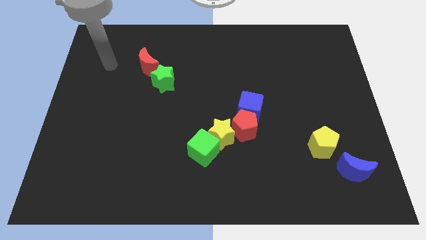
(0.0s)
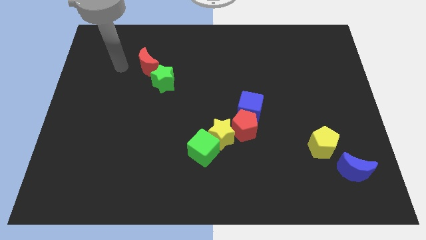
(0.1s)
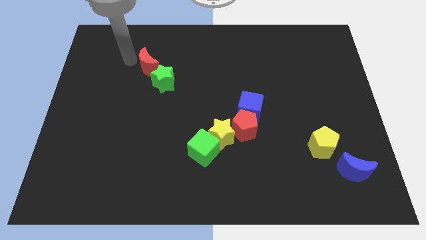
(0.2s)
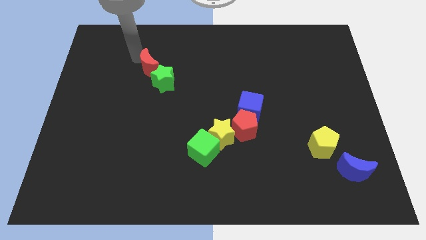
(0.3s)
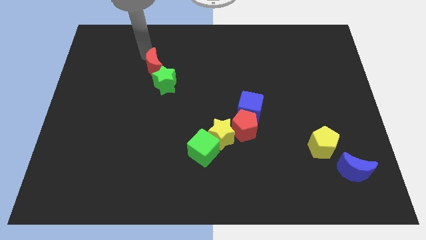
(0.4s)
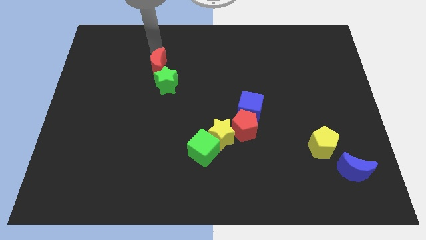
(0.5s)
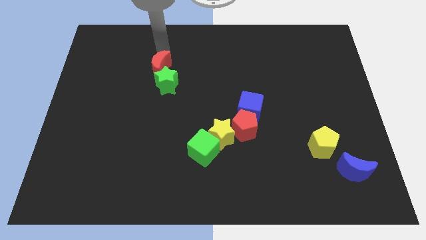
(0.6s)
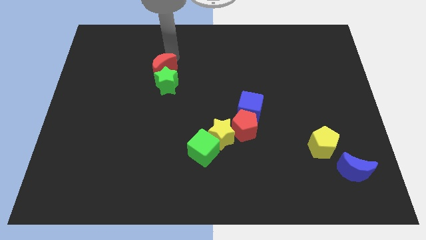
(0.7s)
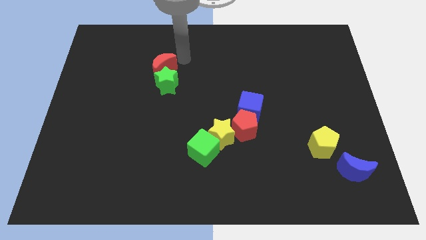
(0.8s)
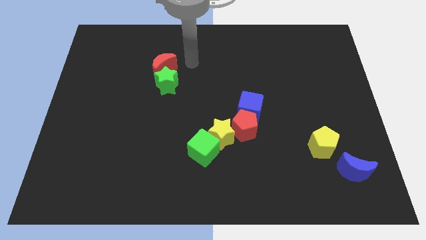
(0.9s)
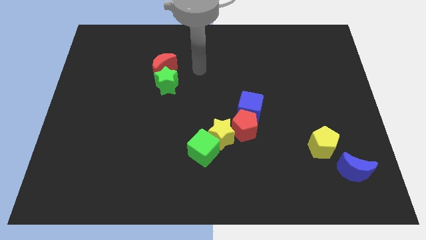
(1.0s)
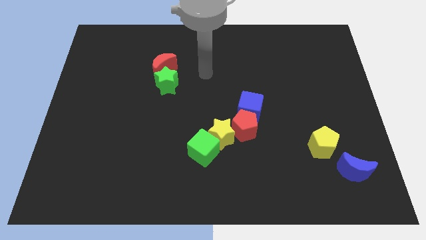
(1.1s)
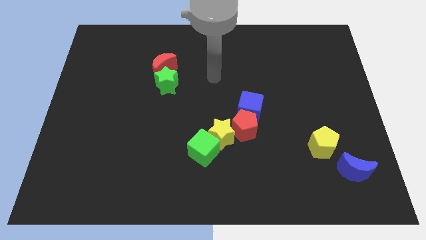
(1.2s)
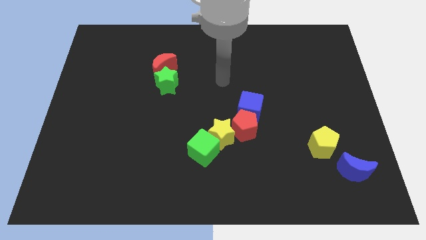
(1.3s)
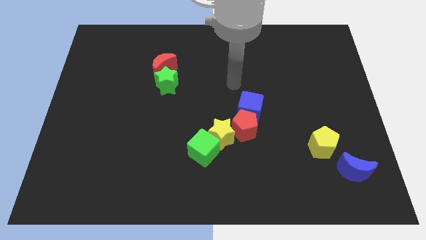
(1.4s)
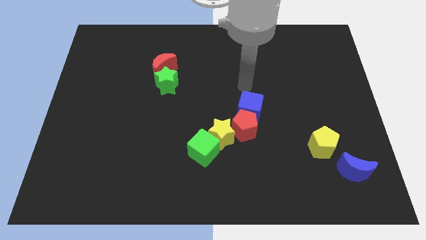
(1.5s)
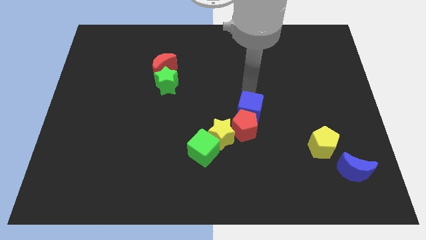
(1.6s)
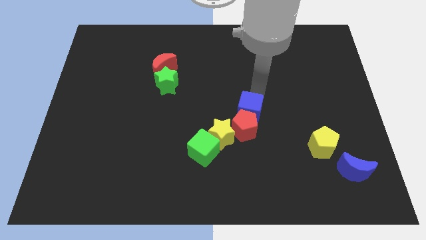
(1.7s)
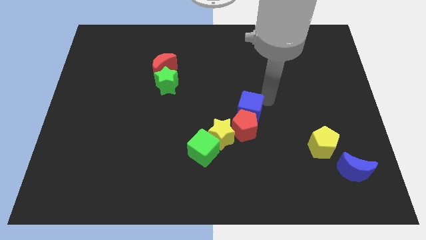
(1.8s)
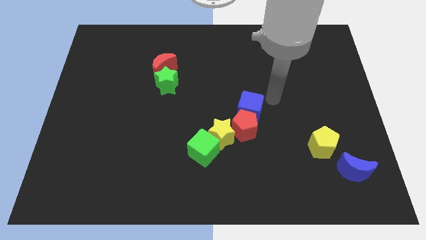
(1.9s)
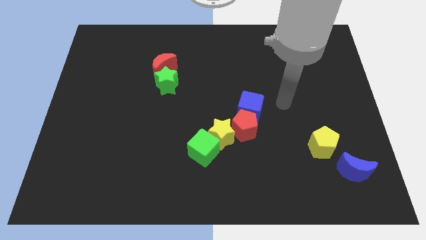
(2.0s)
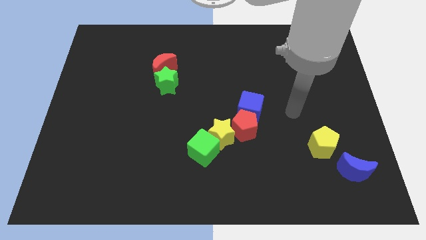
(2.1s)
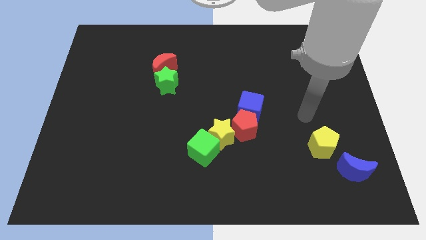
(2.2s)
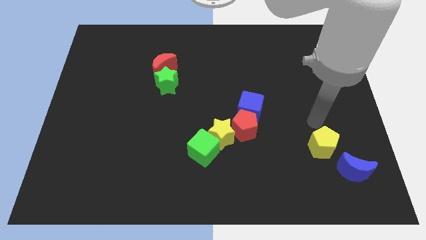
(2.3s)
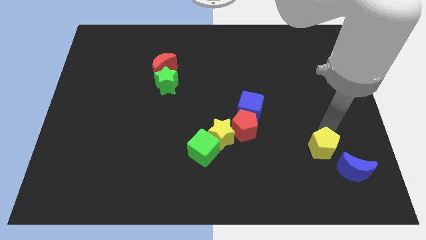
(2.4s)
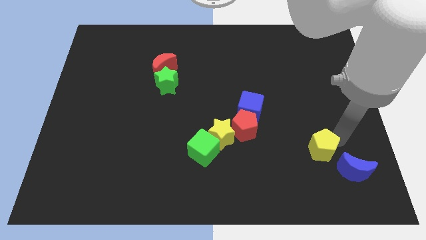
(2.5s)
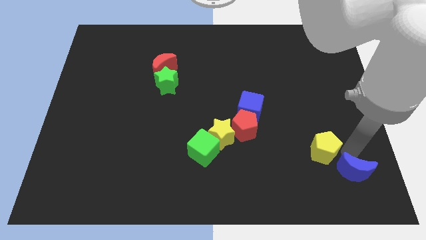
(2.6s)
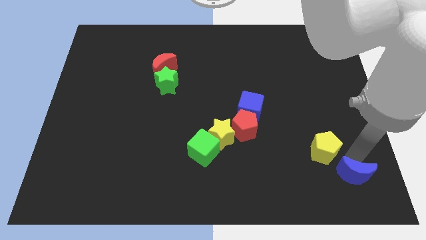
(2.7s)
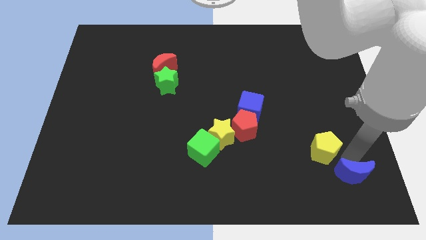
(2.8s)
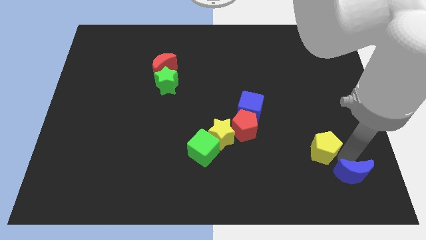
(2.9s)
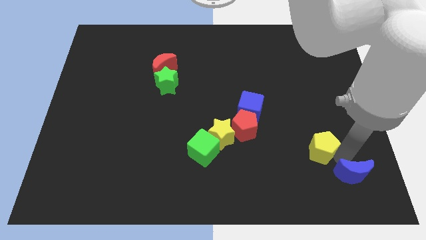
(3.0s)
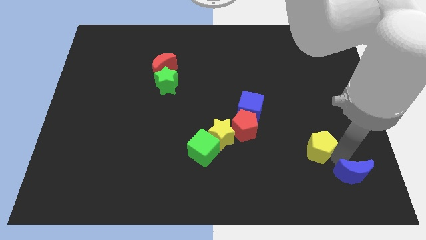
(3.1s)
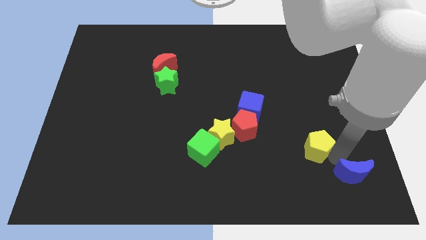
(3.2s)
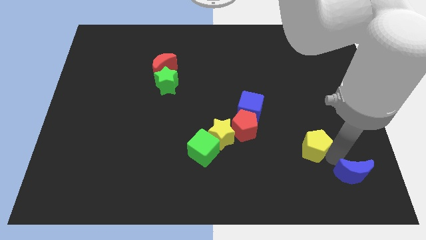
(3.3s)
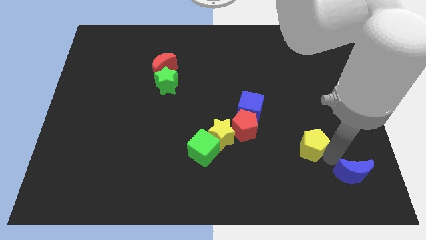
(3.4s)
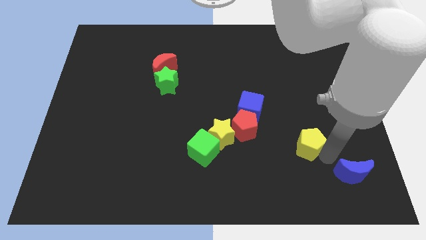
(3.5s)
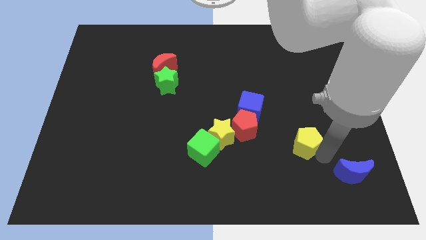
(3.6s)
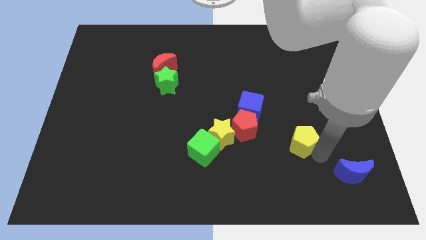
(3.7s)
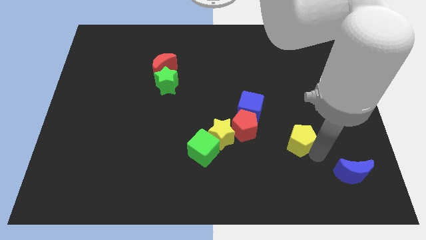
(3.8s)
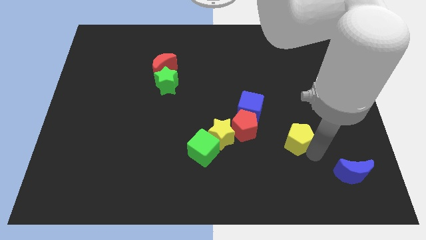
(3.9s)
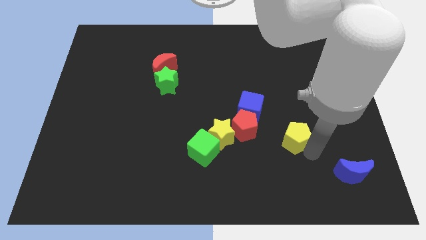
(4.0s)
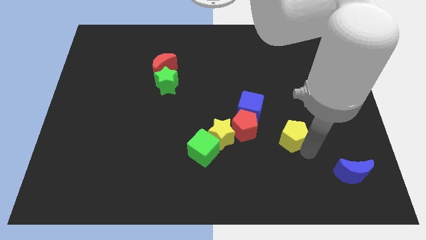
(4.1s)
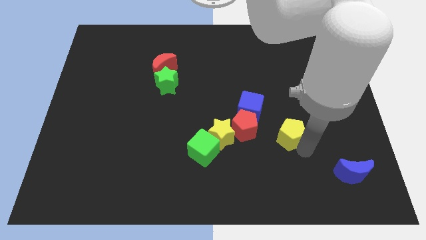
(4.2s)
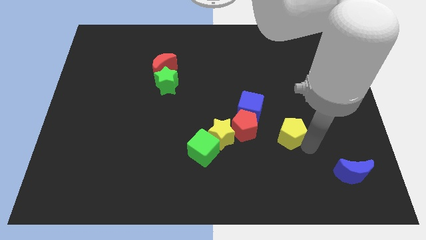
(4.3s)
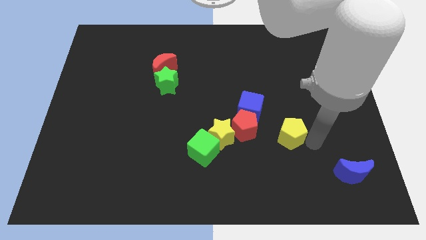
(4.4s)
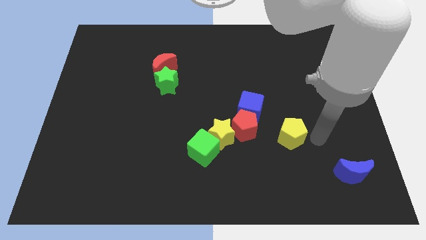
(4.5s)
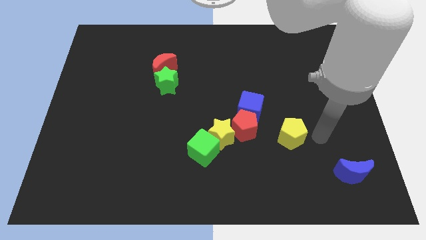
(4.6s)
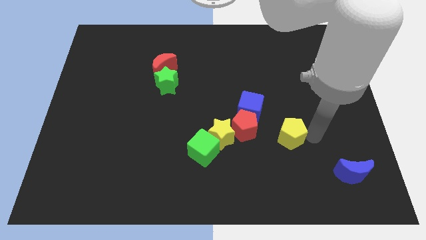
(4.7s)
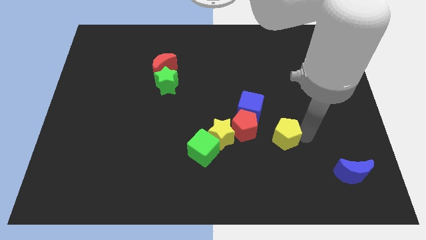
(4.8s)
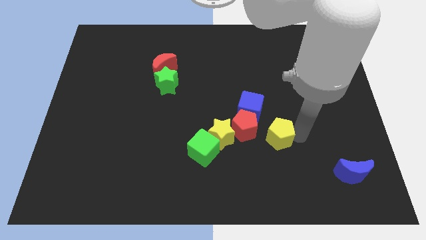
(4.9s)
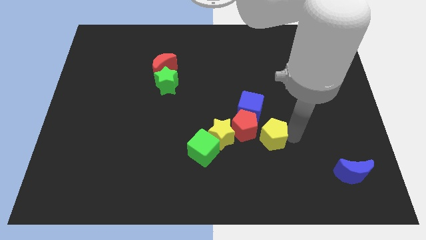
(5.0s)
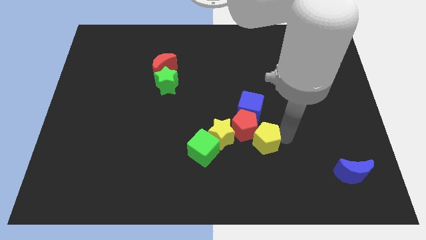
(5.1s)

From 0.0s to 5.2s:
move the yellow pentagon to the red pentagon
